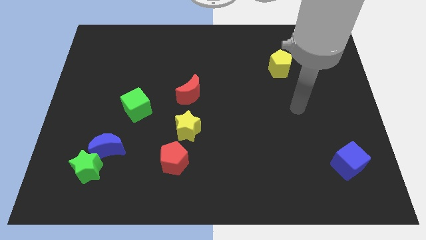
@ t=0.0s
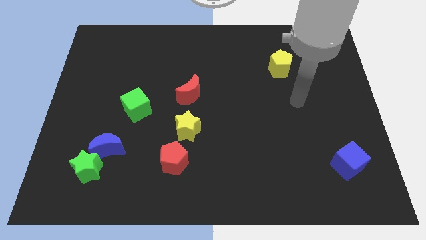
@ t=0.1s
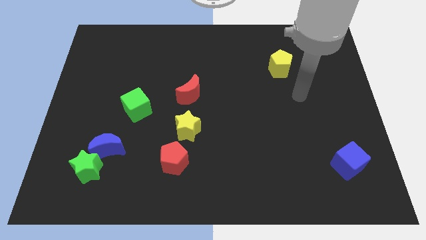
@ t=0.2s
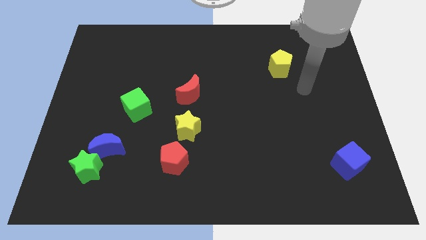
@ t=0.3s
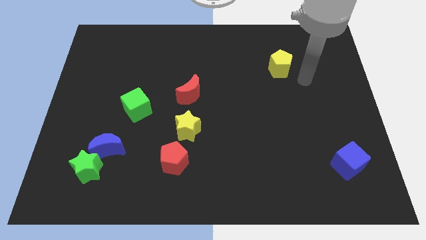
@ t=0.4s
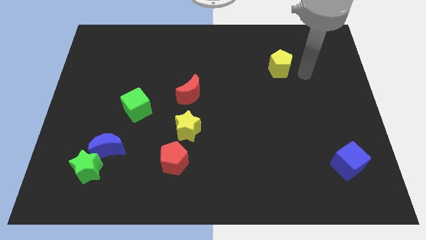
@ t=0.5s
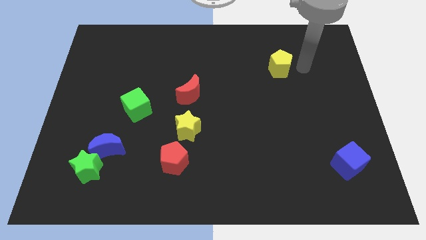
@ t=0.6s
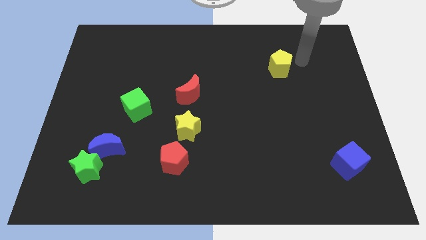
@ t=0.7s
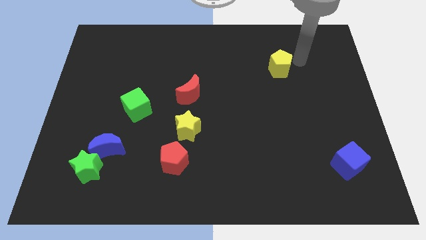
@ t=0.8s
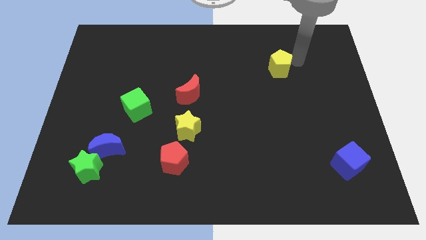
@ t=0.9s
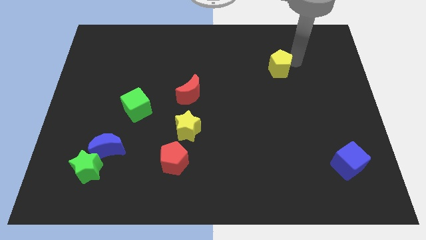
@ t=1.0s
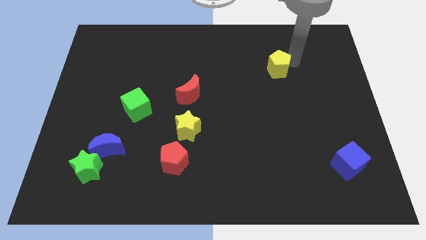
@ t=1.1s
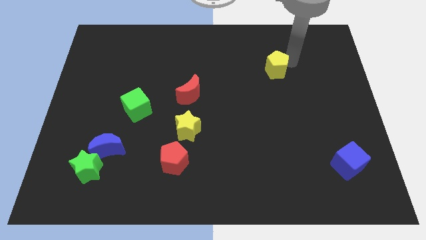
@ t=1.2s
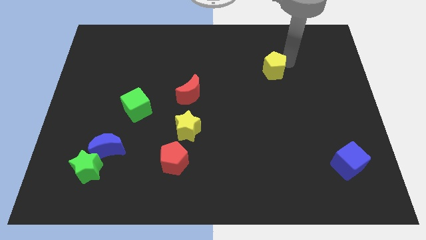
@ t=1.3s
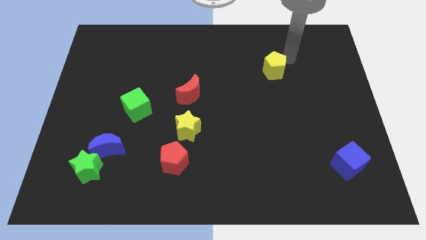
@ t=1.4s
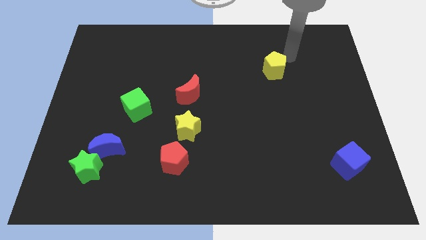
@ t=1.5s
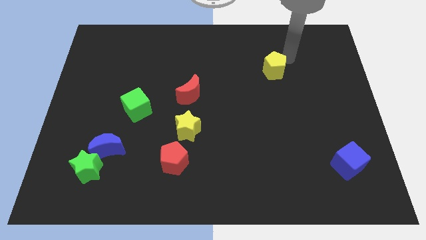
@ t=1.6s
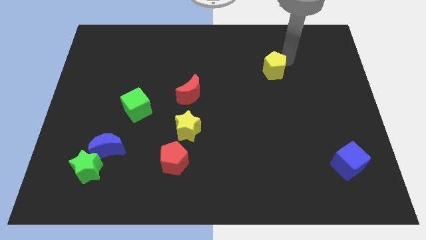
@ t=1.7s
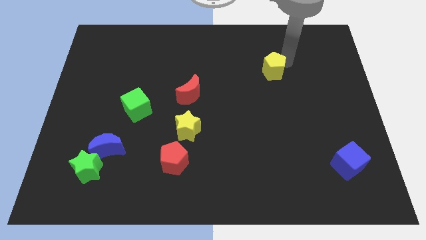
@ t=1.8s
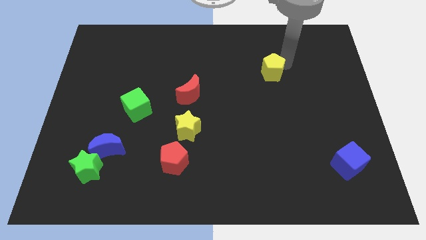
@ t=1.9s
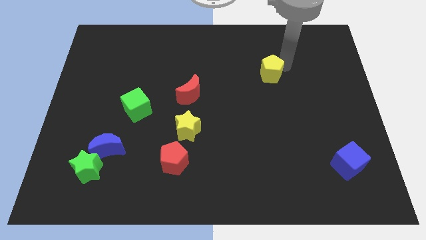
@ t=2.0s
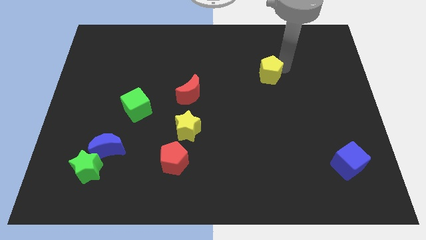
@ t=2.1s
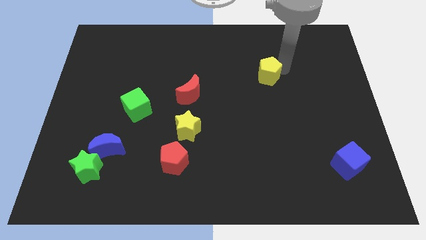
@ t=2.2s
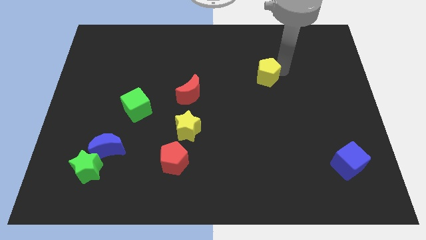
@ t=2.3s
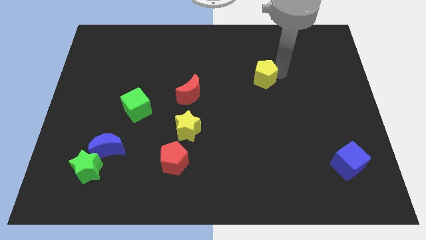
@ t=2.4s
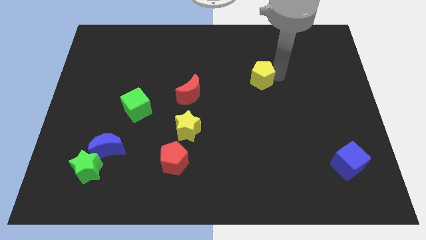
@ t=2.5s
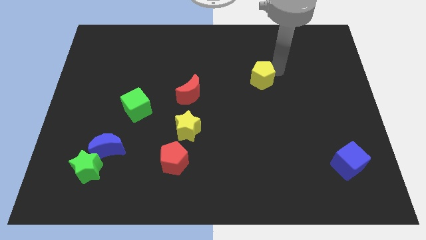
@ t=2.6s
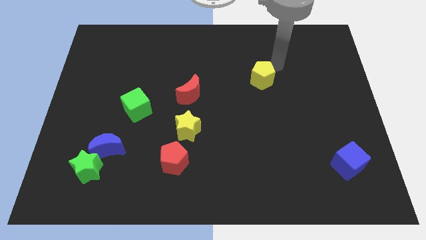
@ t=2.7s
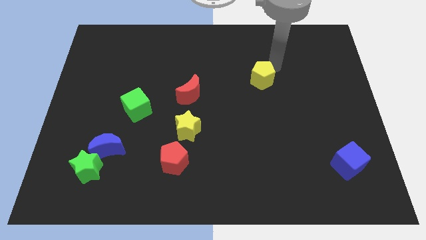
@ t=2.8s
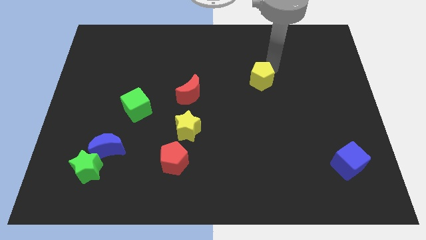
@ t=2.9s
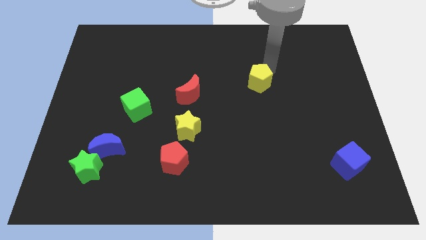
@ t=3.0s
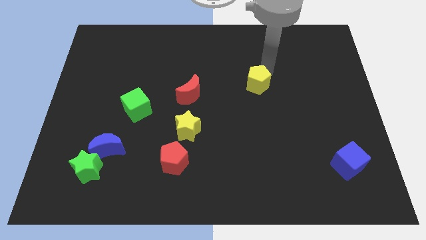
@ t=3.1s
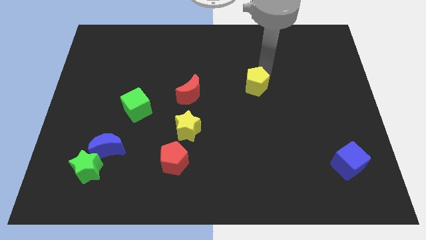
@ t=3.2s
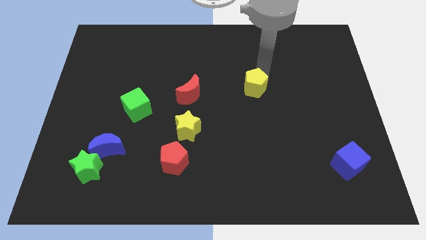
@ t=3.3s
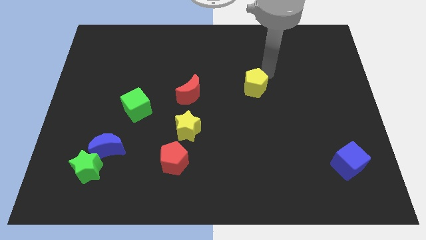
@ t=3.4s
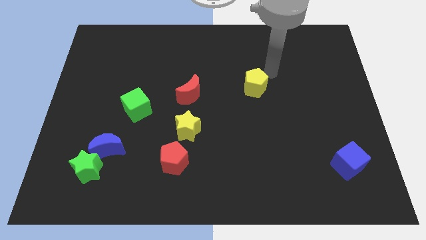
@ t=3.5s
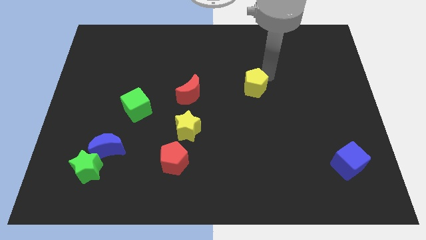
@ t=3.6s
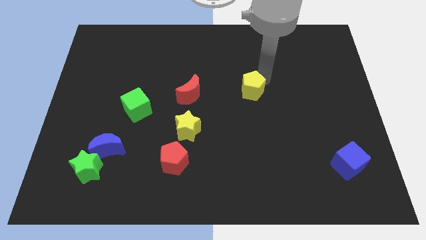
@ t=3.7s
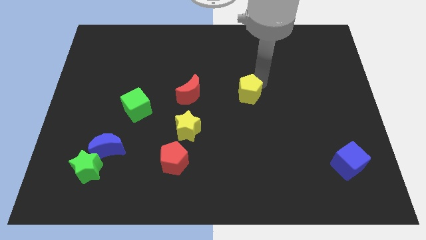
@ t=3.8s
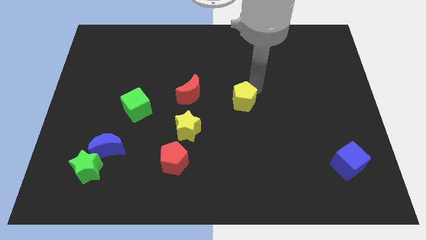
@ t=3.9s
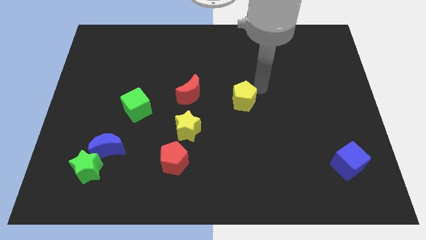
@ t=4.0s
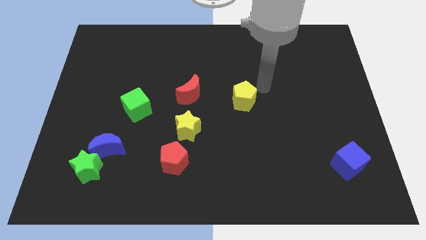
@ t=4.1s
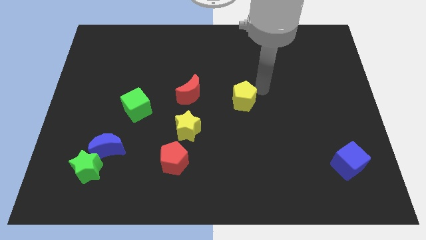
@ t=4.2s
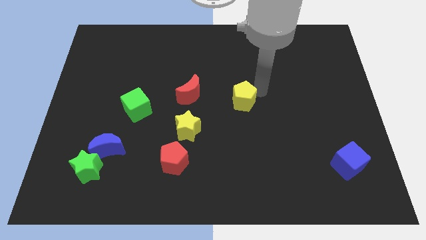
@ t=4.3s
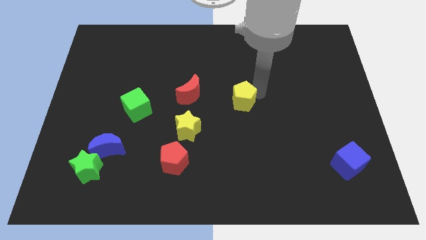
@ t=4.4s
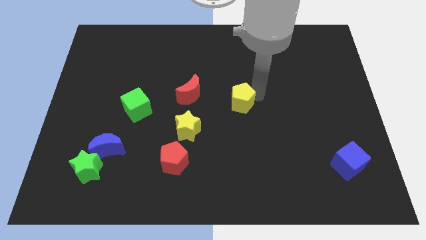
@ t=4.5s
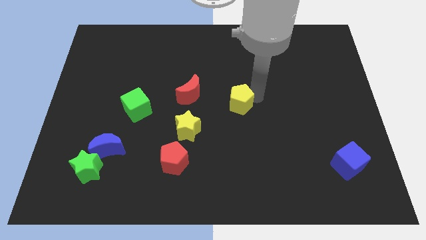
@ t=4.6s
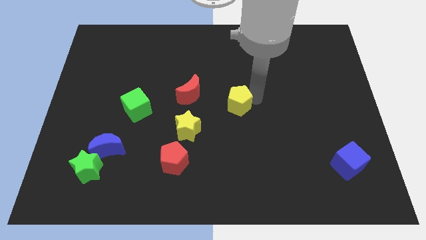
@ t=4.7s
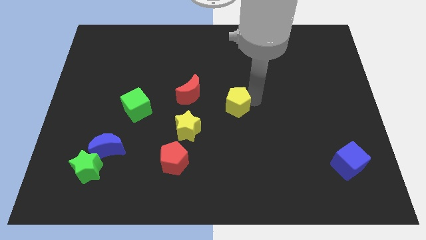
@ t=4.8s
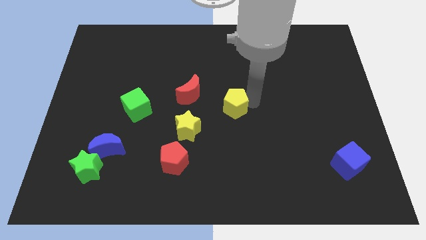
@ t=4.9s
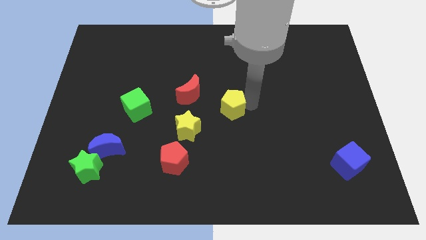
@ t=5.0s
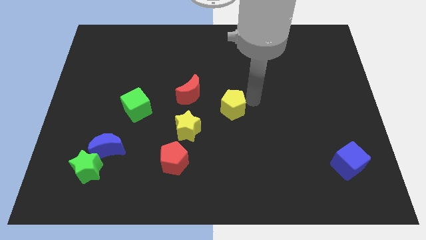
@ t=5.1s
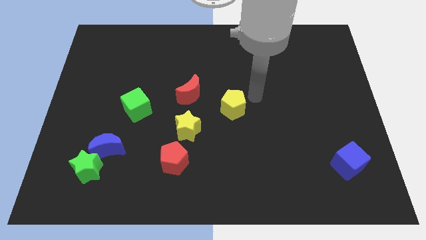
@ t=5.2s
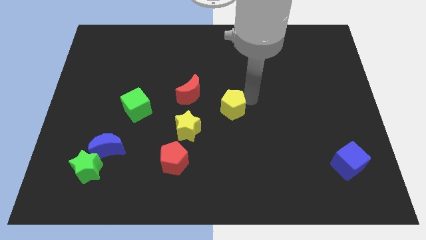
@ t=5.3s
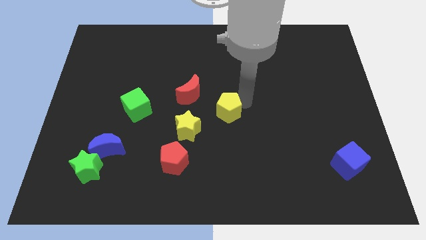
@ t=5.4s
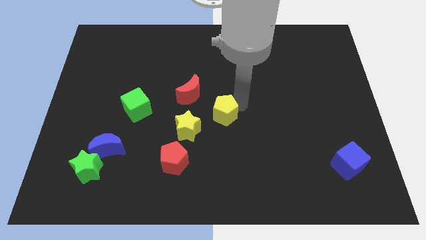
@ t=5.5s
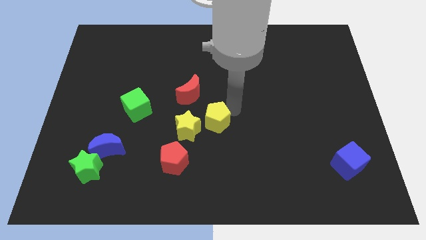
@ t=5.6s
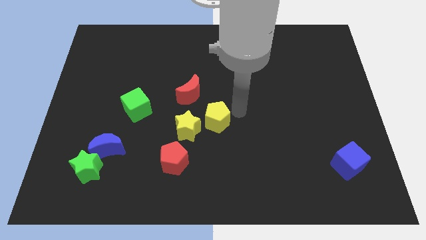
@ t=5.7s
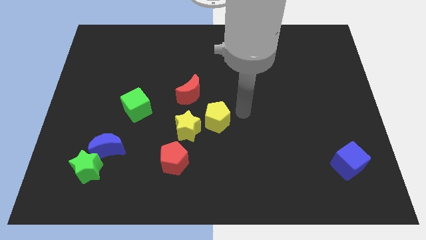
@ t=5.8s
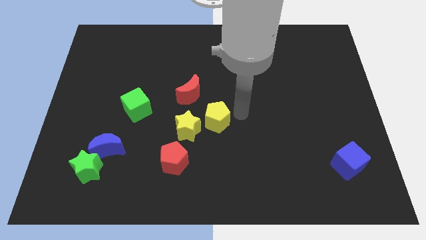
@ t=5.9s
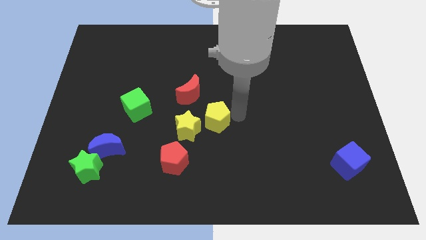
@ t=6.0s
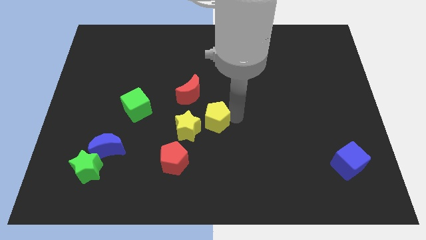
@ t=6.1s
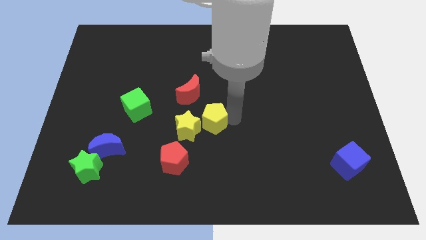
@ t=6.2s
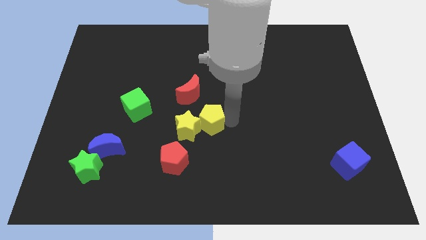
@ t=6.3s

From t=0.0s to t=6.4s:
put the yellow pentagon next to the yellow star

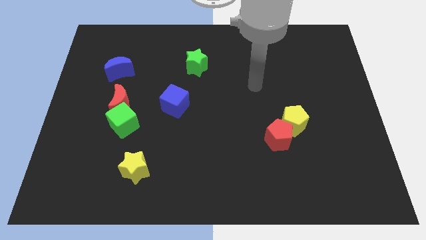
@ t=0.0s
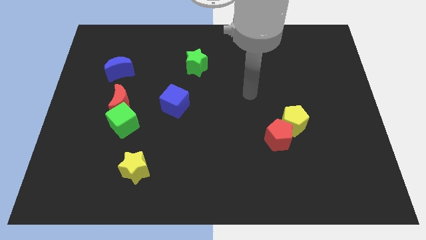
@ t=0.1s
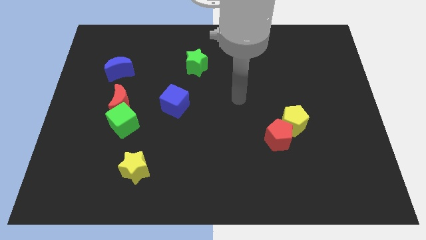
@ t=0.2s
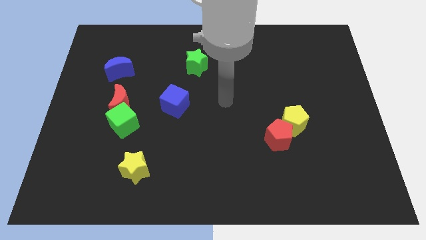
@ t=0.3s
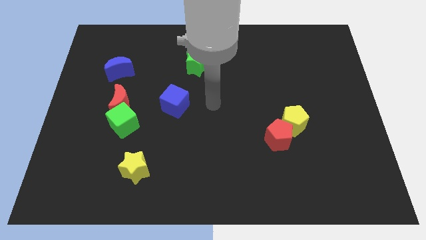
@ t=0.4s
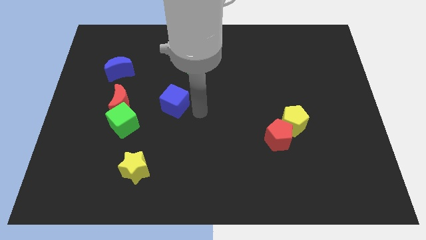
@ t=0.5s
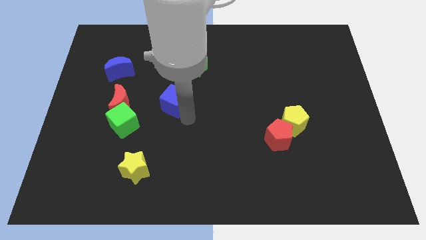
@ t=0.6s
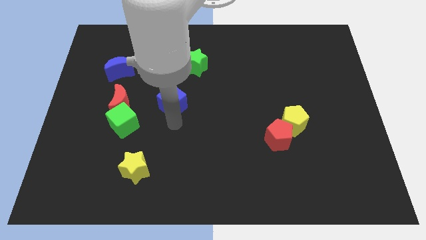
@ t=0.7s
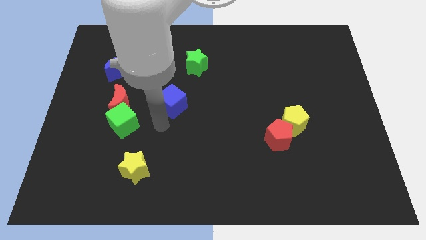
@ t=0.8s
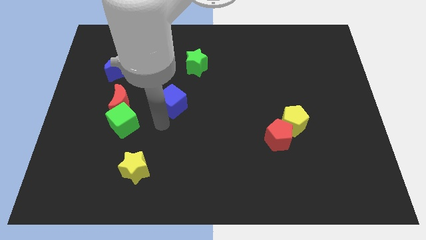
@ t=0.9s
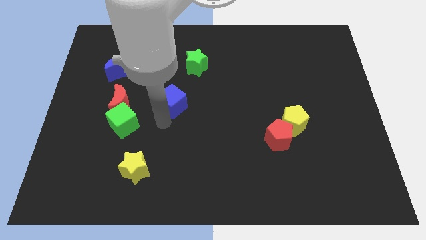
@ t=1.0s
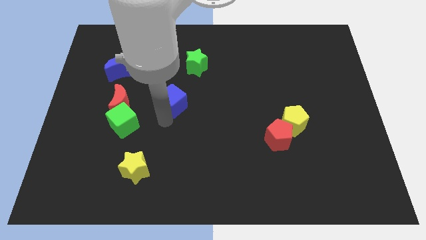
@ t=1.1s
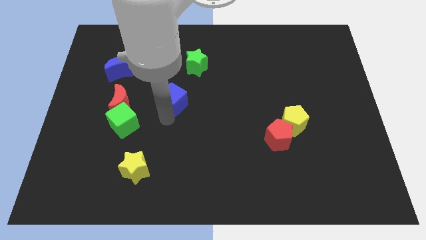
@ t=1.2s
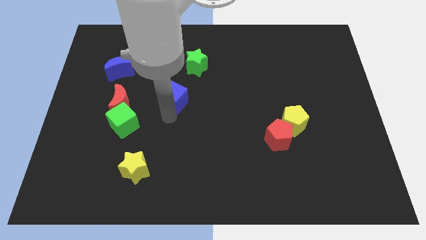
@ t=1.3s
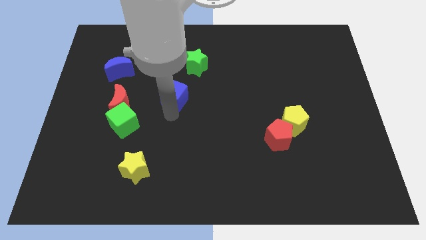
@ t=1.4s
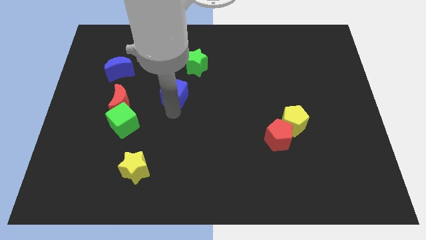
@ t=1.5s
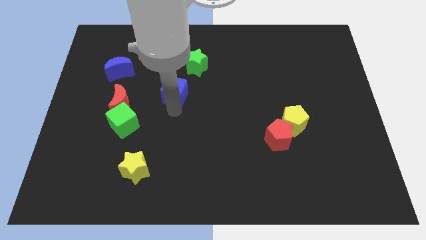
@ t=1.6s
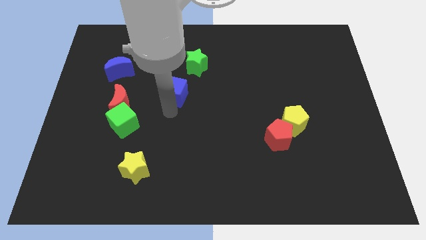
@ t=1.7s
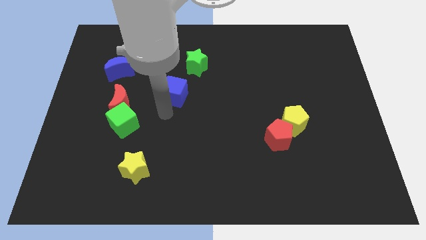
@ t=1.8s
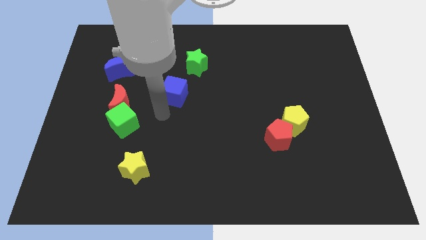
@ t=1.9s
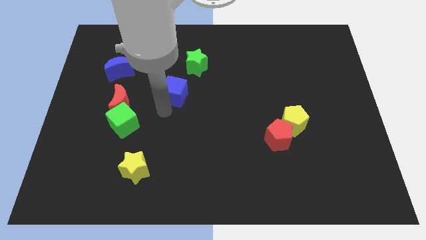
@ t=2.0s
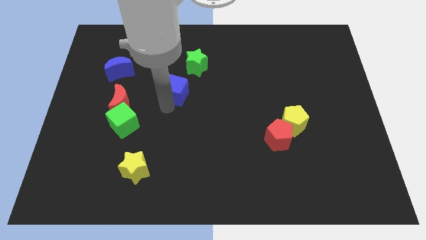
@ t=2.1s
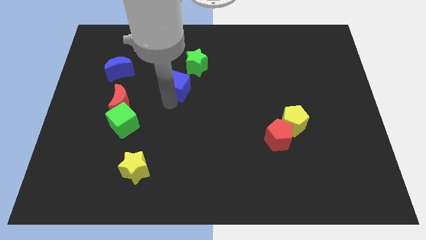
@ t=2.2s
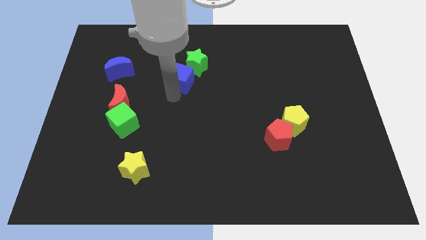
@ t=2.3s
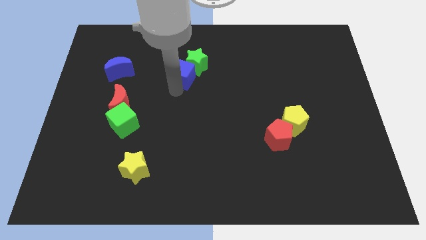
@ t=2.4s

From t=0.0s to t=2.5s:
slide the blue cube next to the green star
